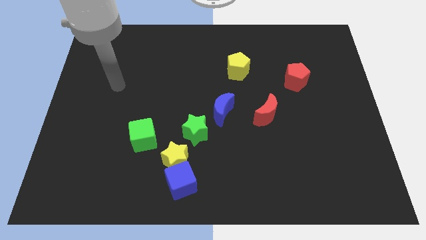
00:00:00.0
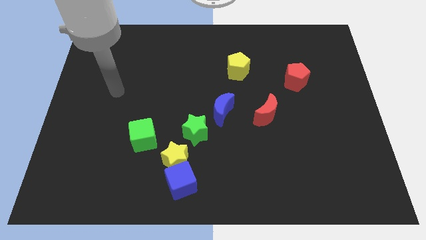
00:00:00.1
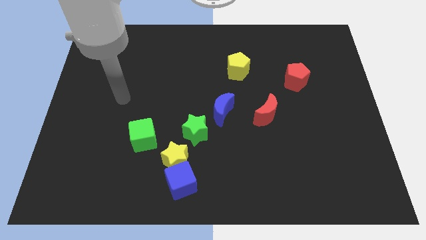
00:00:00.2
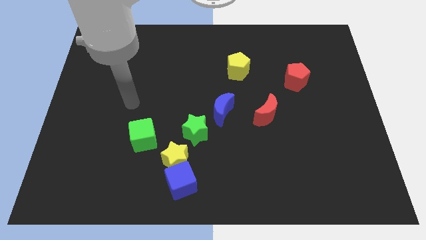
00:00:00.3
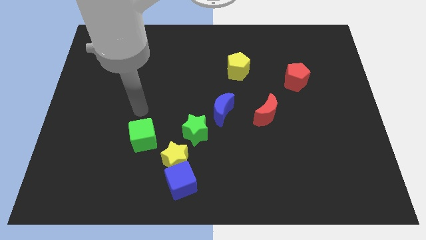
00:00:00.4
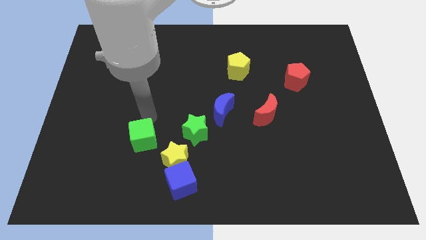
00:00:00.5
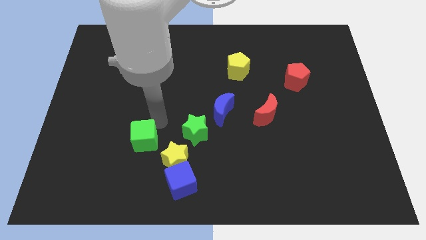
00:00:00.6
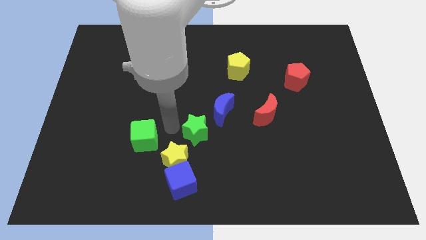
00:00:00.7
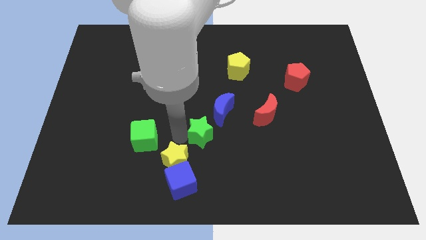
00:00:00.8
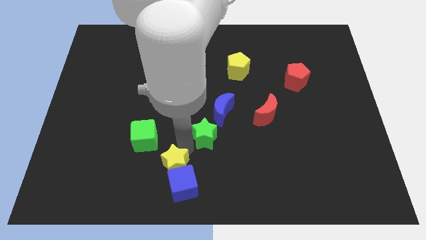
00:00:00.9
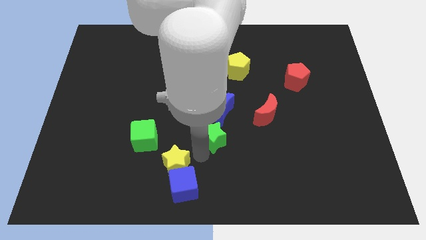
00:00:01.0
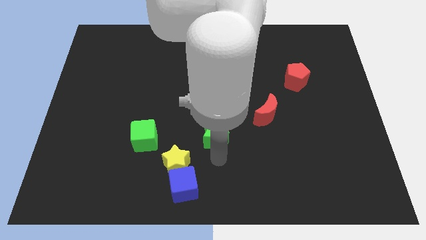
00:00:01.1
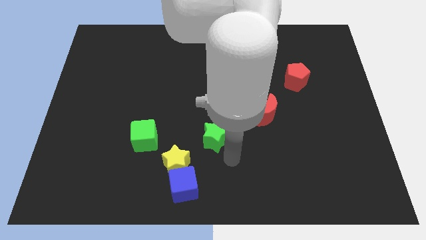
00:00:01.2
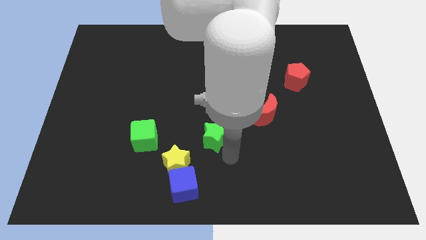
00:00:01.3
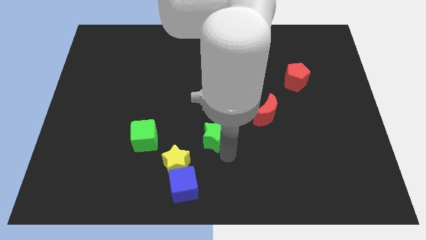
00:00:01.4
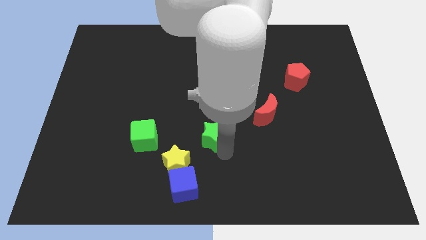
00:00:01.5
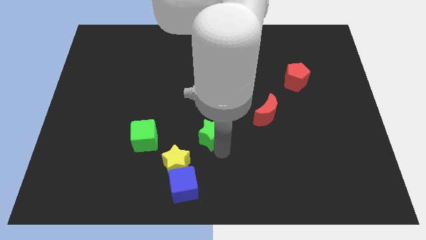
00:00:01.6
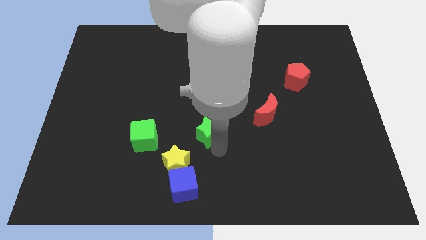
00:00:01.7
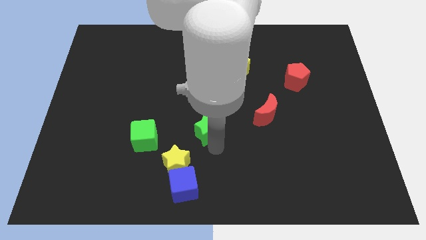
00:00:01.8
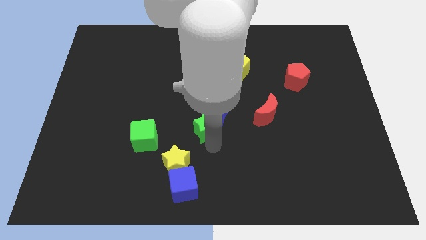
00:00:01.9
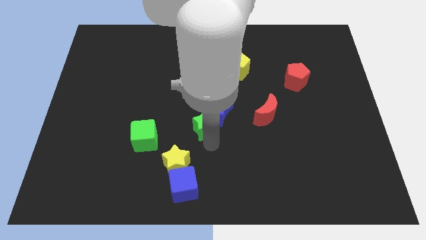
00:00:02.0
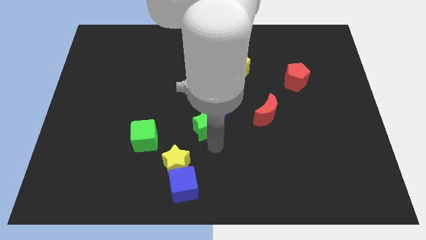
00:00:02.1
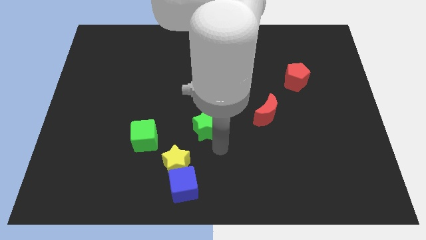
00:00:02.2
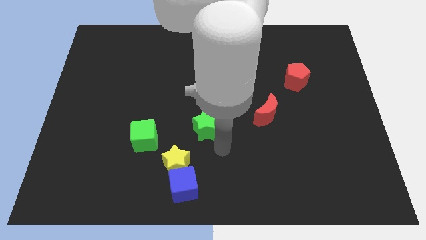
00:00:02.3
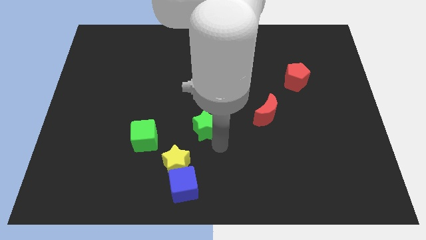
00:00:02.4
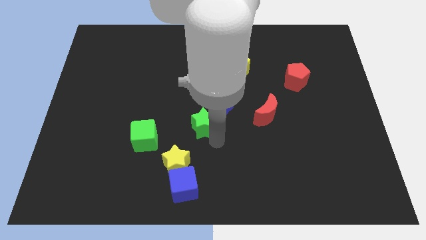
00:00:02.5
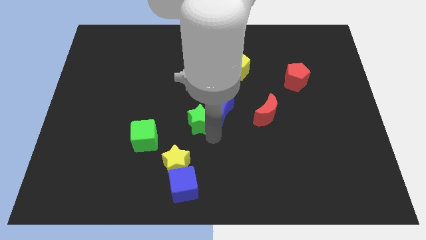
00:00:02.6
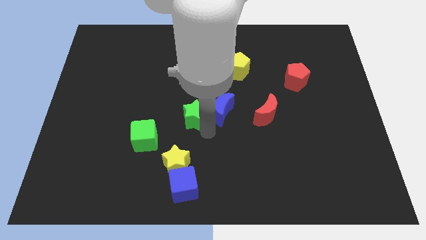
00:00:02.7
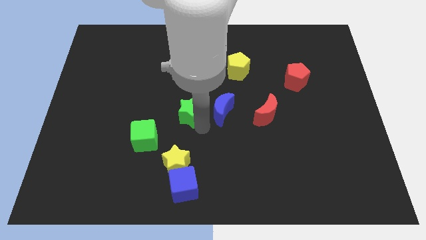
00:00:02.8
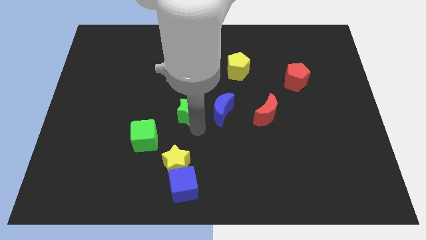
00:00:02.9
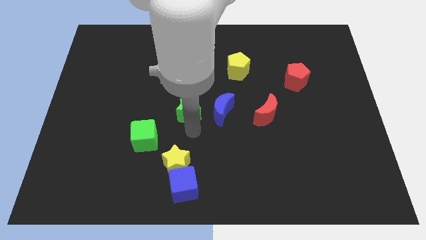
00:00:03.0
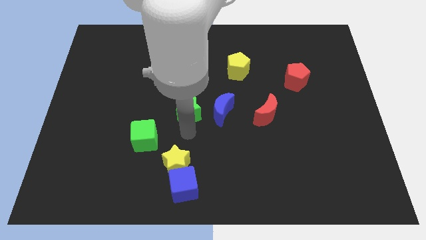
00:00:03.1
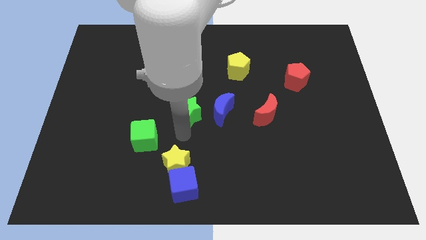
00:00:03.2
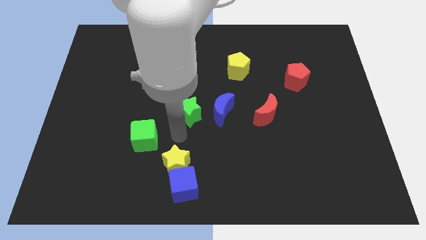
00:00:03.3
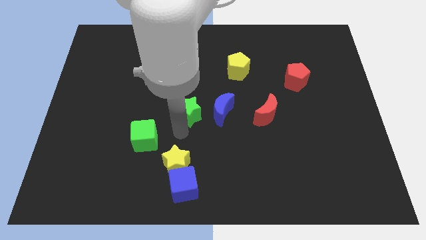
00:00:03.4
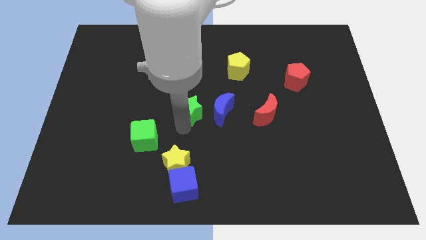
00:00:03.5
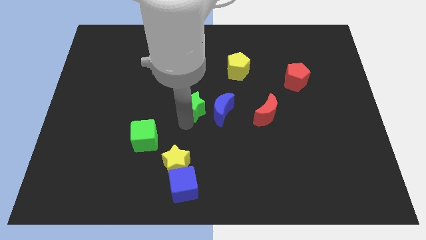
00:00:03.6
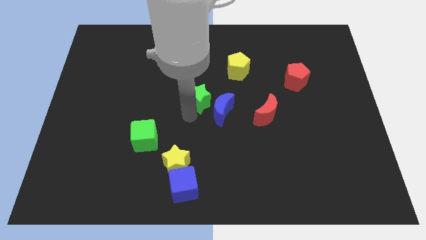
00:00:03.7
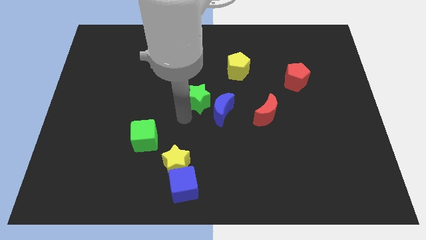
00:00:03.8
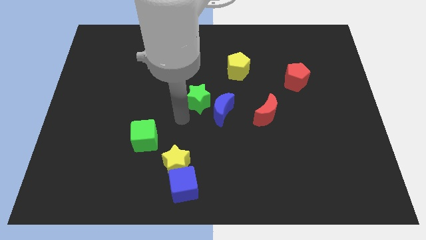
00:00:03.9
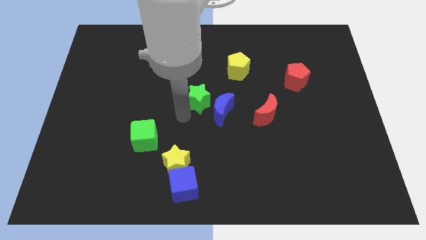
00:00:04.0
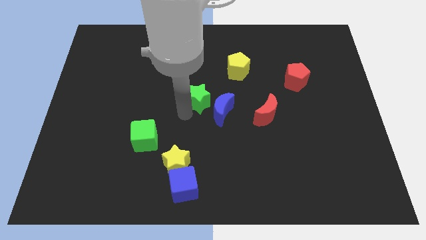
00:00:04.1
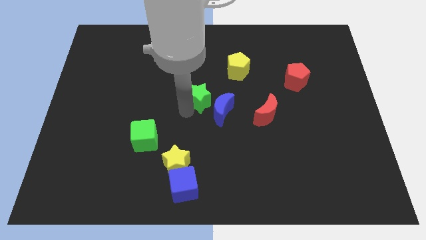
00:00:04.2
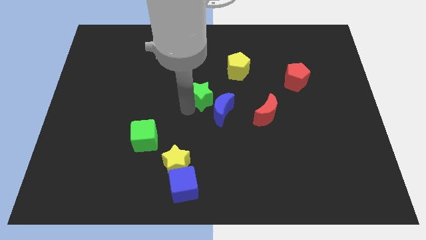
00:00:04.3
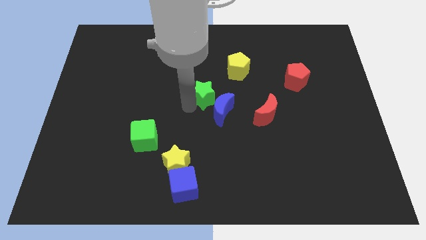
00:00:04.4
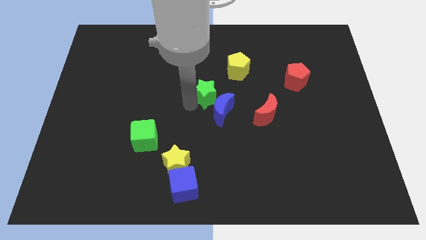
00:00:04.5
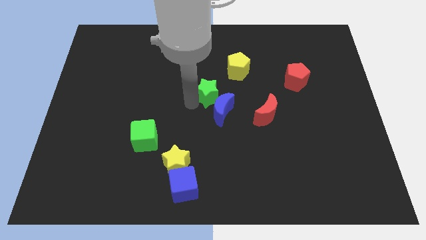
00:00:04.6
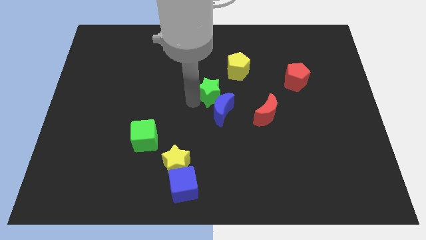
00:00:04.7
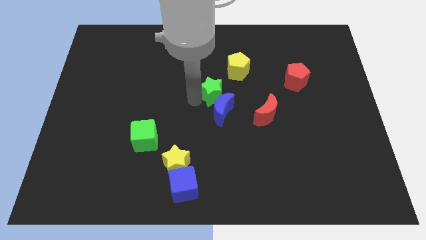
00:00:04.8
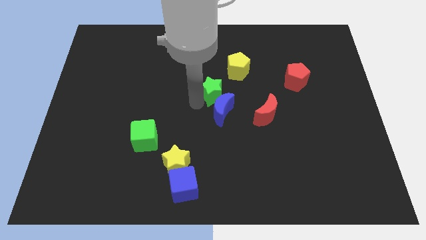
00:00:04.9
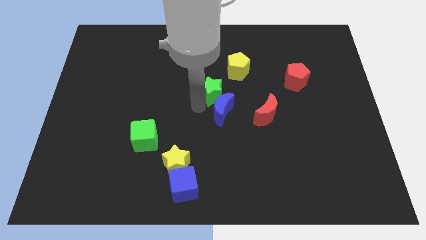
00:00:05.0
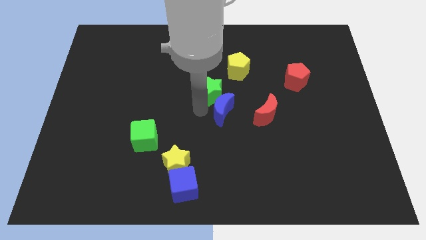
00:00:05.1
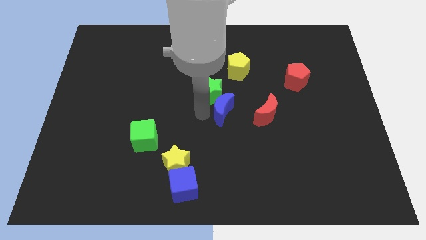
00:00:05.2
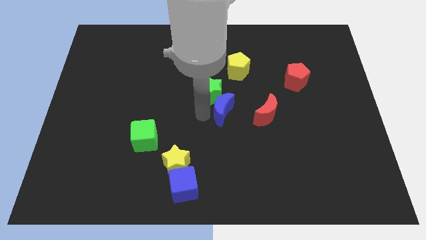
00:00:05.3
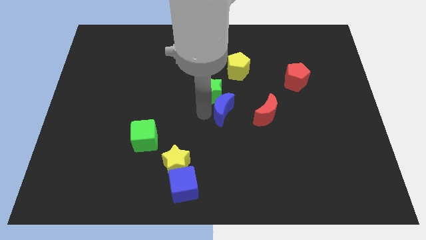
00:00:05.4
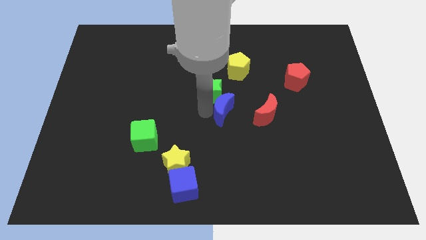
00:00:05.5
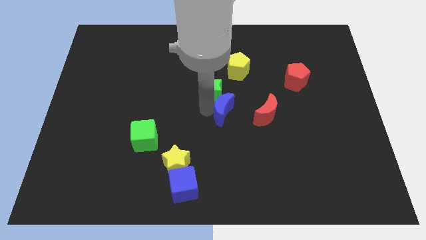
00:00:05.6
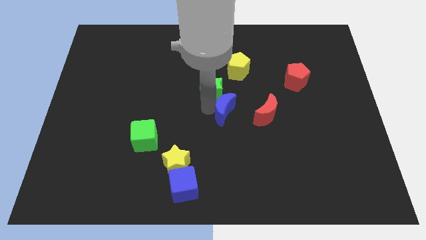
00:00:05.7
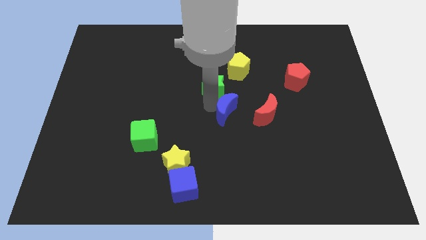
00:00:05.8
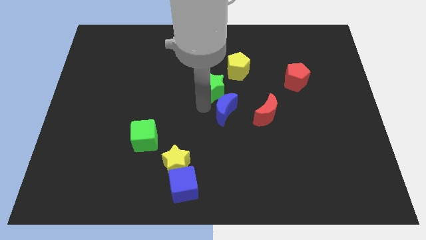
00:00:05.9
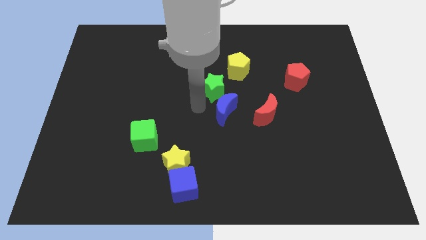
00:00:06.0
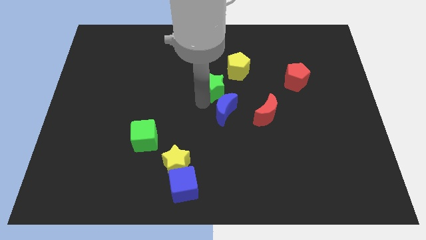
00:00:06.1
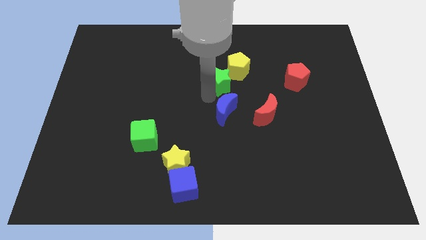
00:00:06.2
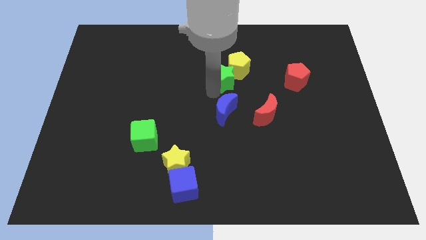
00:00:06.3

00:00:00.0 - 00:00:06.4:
put the green star to the yellow pentagon

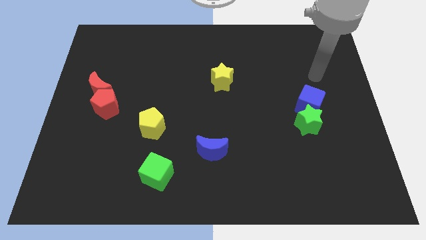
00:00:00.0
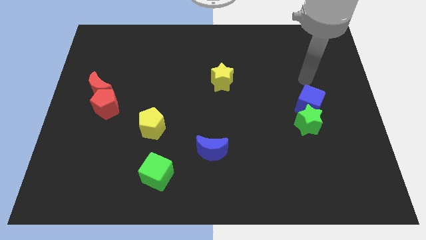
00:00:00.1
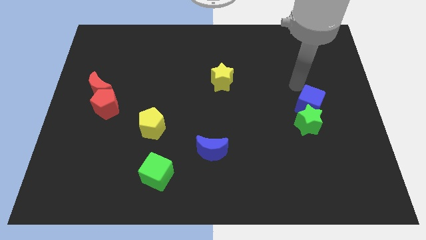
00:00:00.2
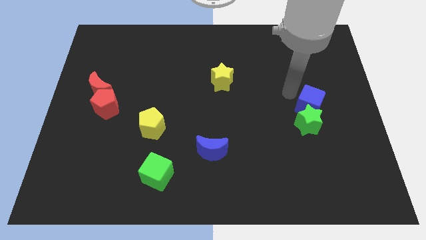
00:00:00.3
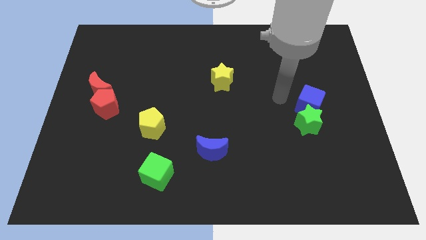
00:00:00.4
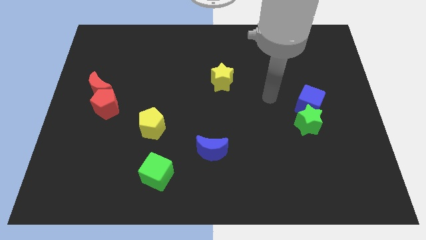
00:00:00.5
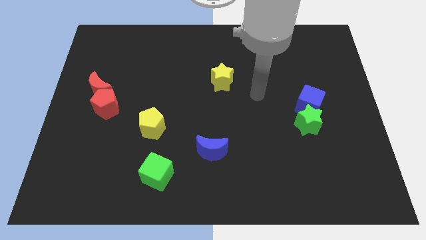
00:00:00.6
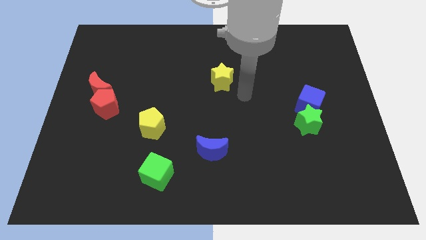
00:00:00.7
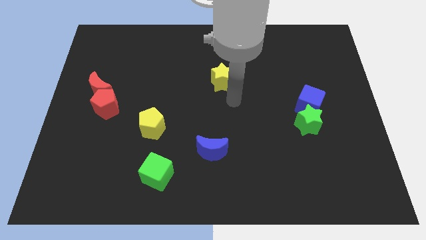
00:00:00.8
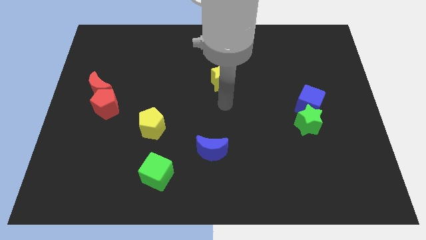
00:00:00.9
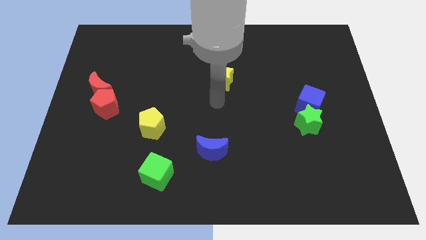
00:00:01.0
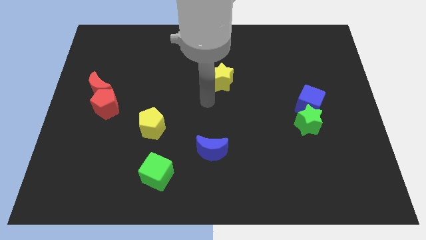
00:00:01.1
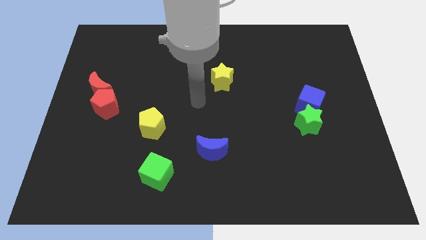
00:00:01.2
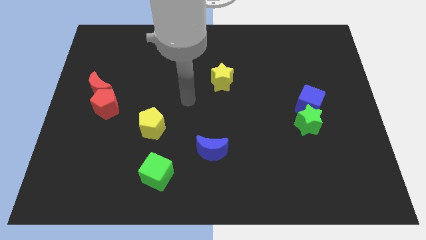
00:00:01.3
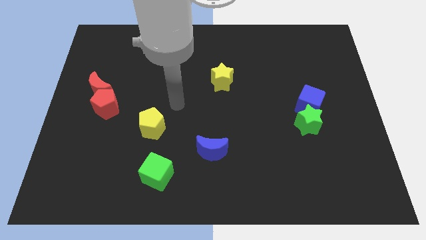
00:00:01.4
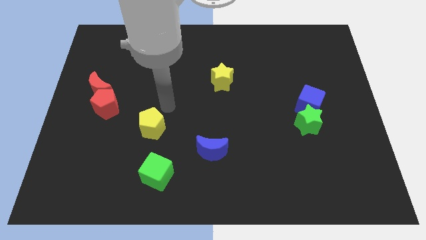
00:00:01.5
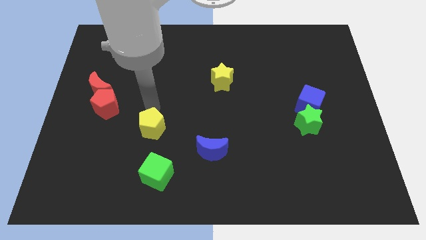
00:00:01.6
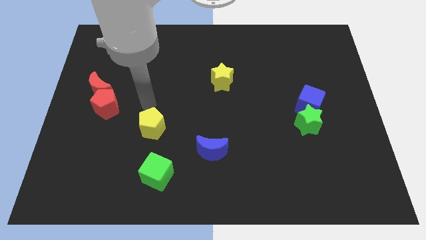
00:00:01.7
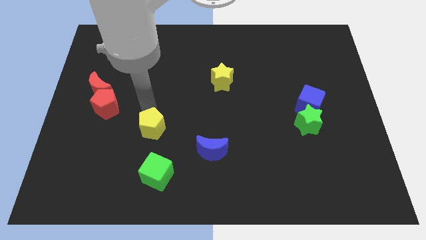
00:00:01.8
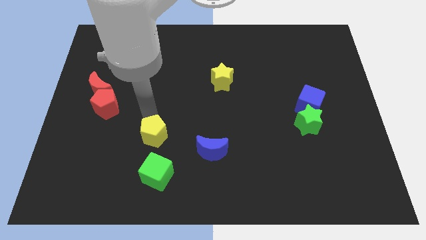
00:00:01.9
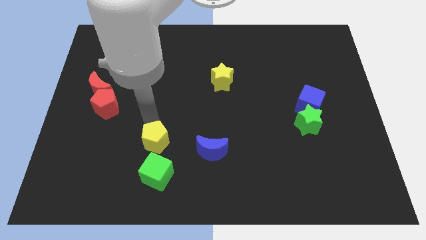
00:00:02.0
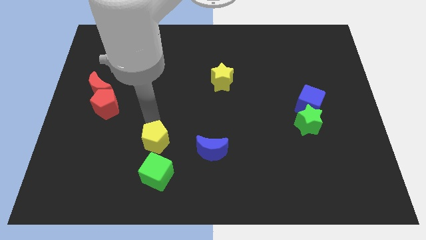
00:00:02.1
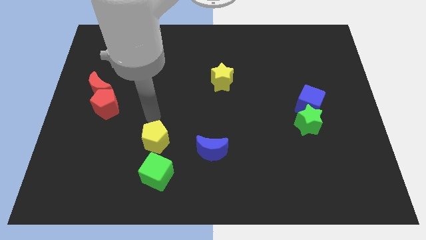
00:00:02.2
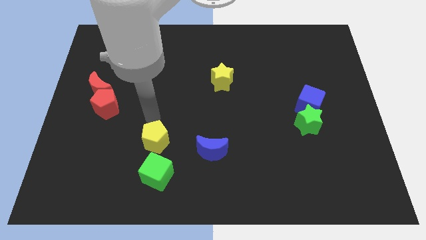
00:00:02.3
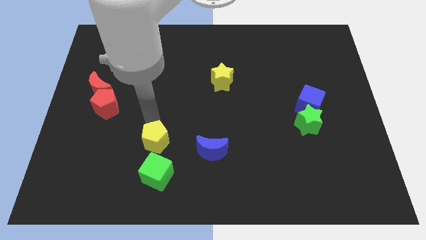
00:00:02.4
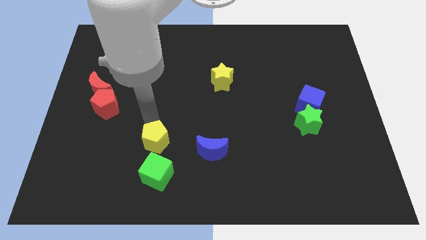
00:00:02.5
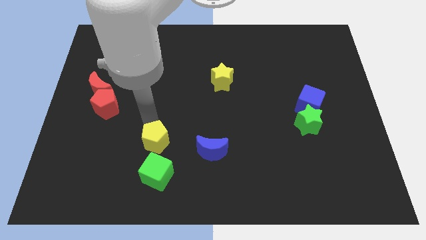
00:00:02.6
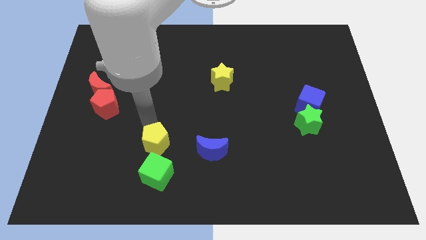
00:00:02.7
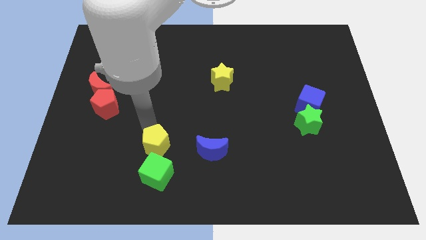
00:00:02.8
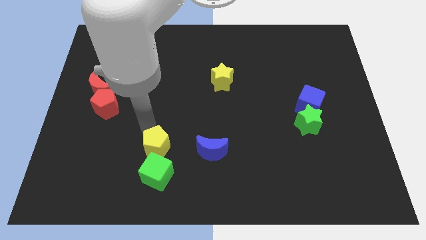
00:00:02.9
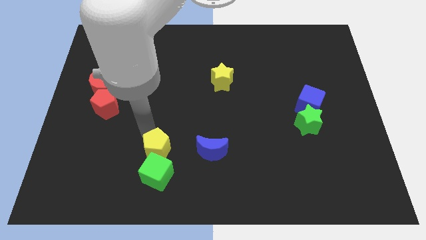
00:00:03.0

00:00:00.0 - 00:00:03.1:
slide the yellow pentagon next to the green cube
